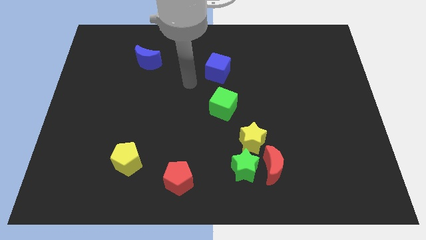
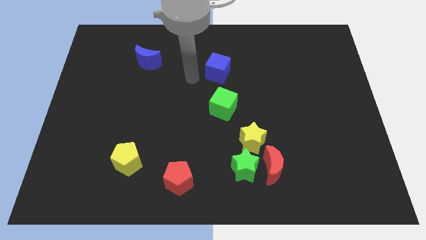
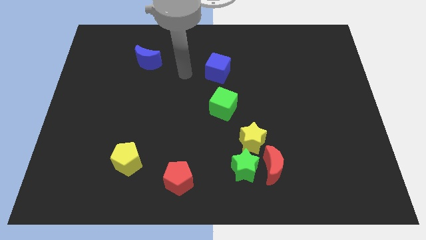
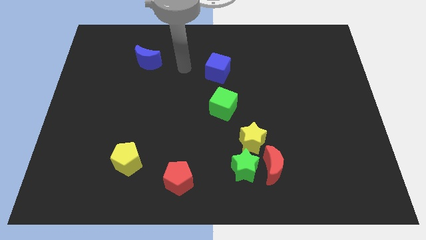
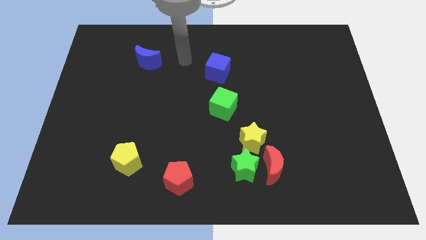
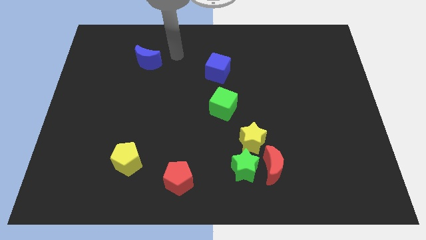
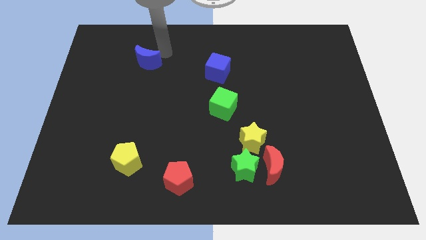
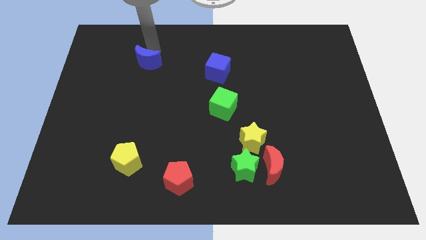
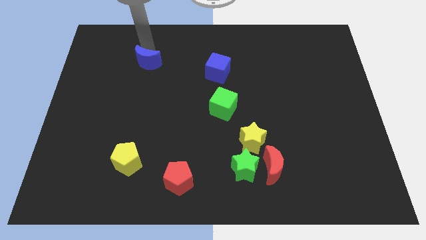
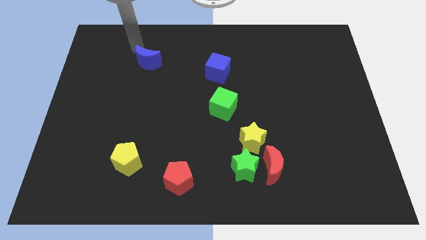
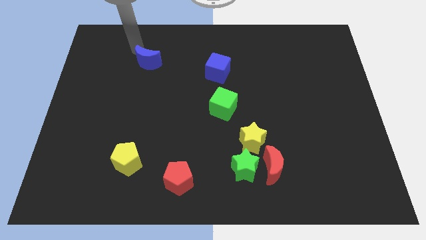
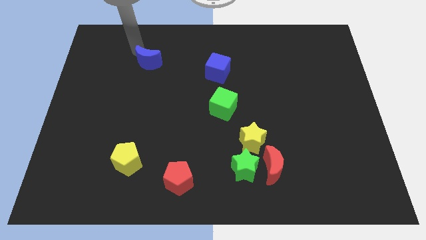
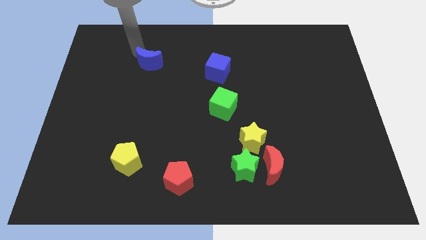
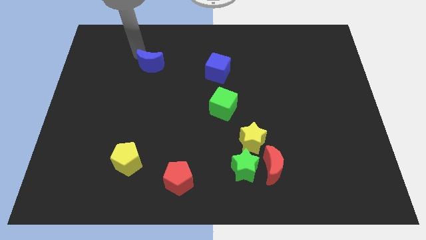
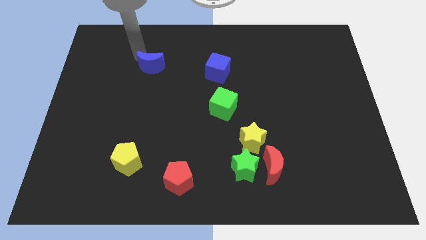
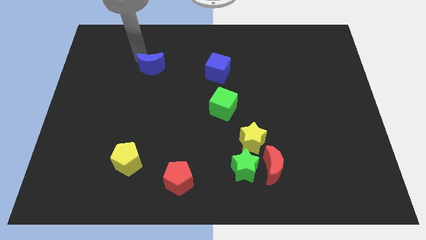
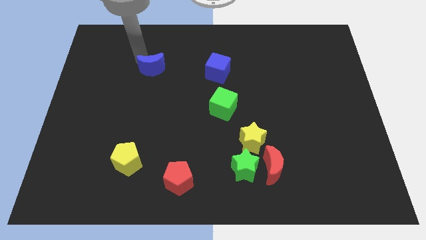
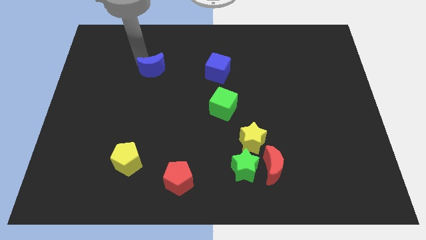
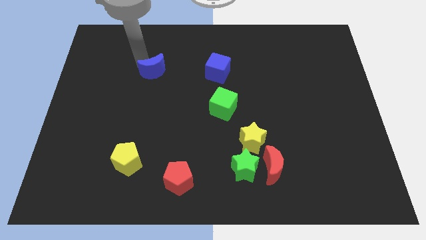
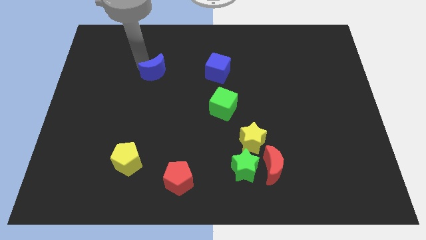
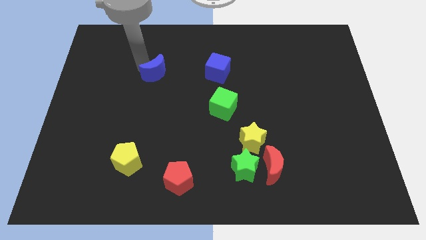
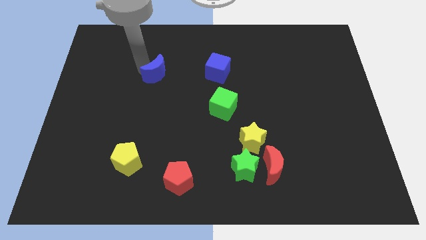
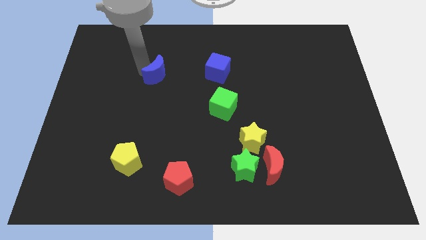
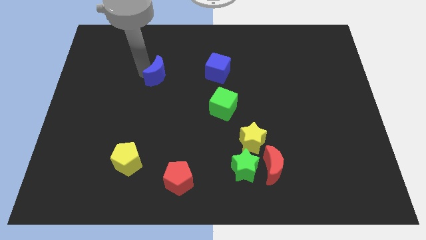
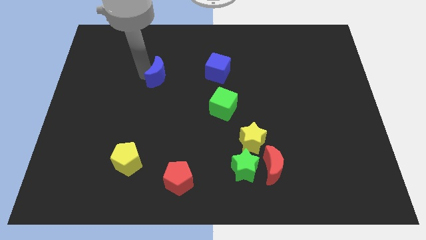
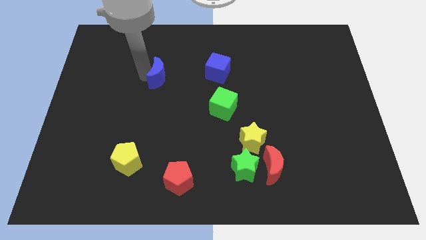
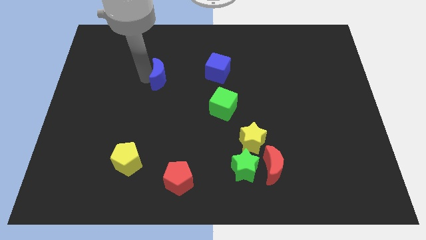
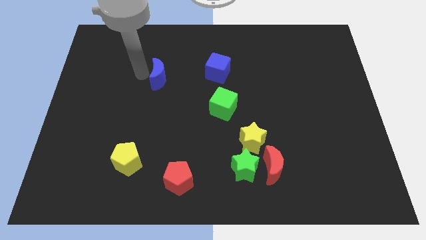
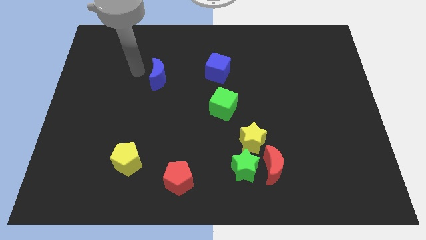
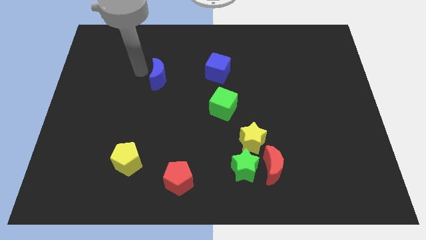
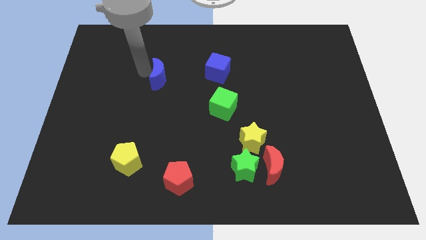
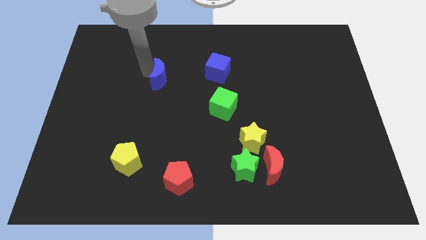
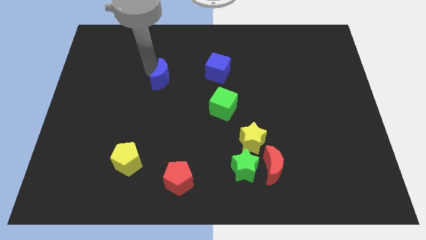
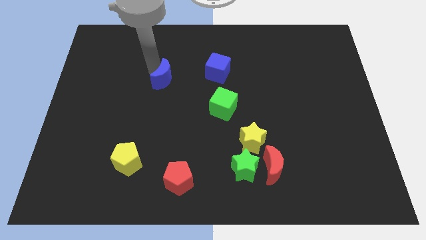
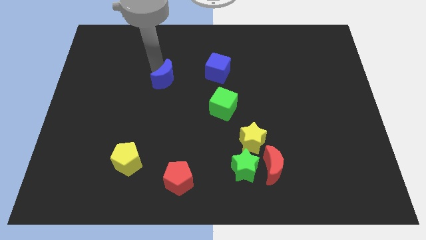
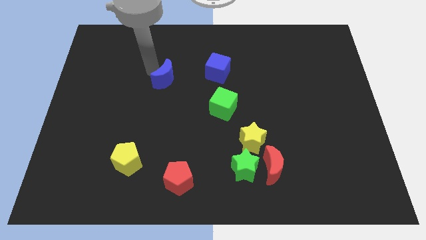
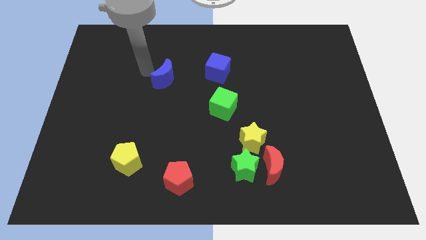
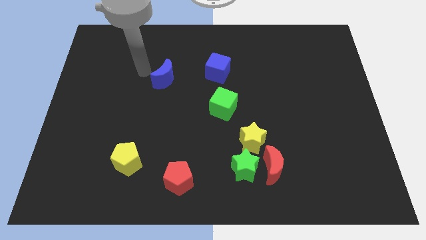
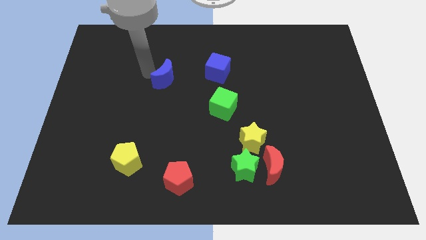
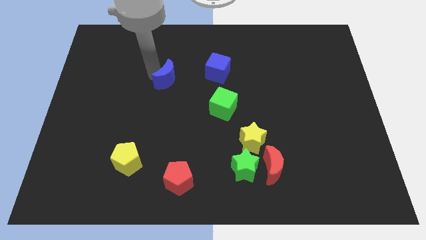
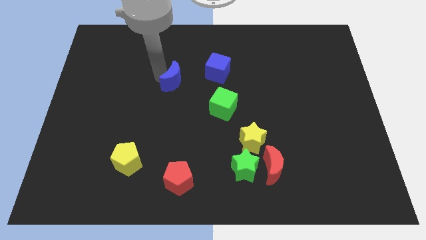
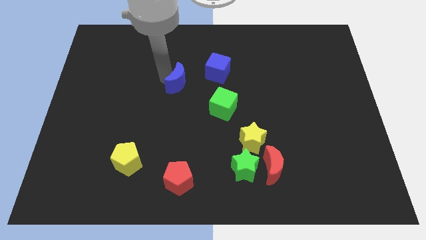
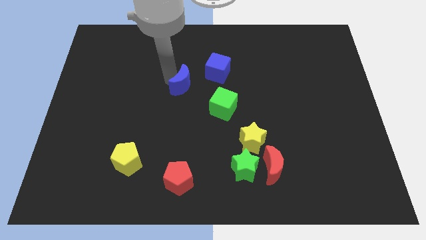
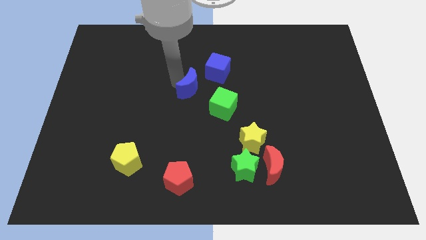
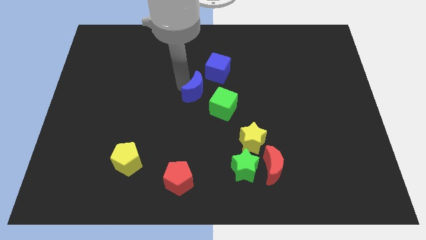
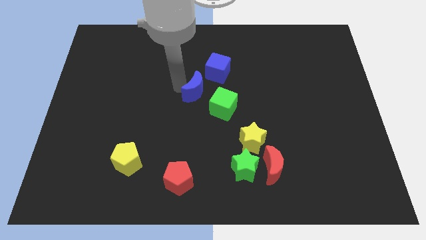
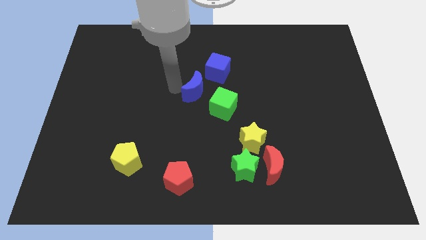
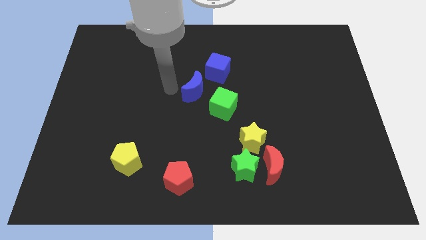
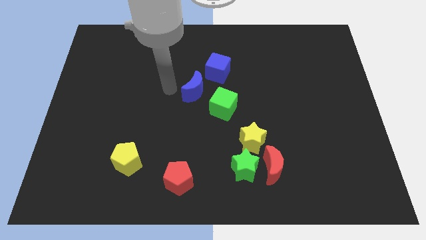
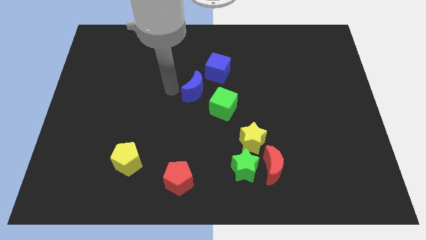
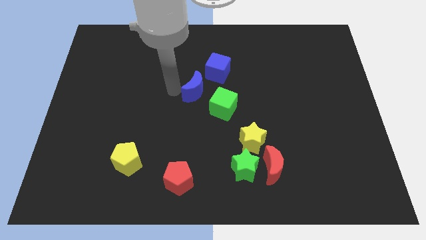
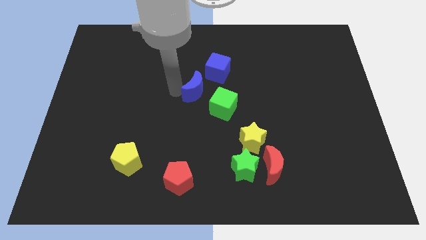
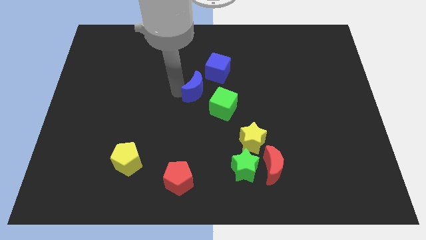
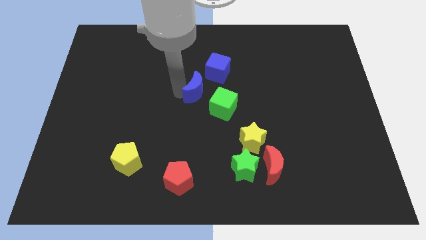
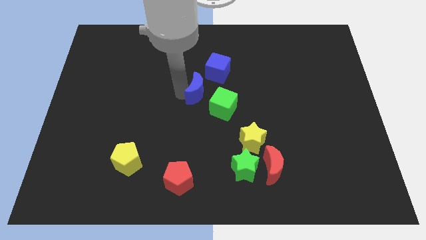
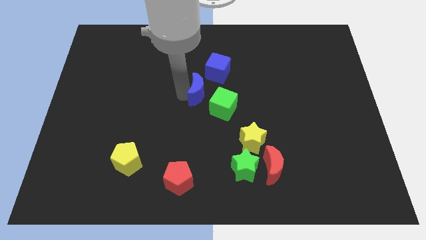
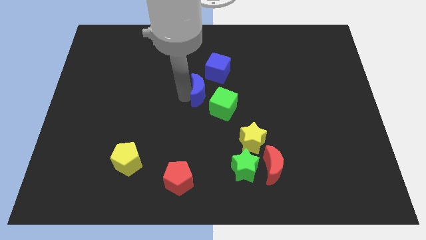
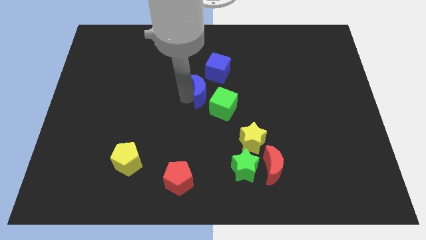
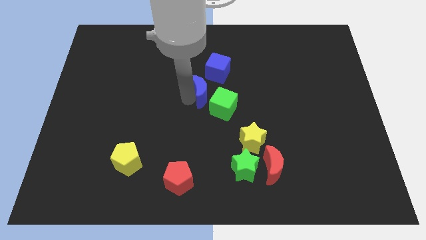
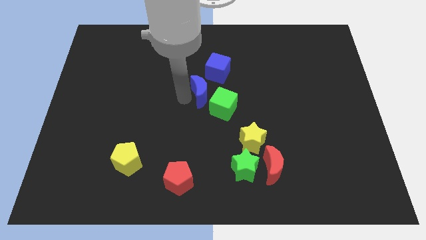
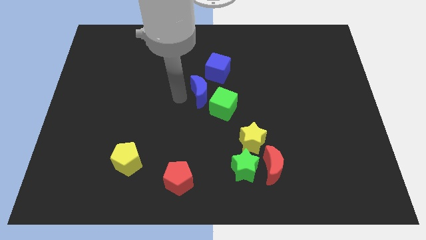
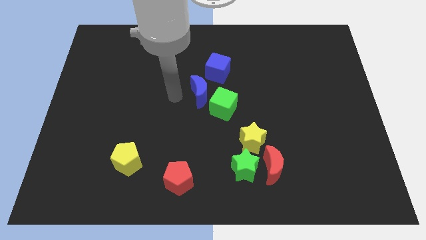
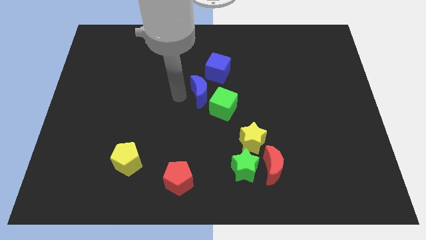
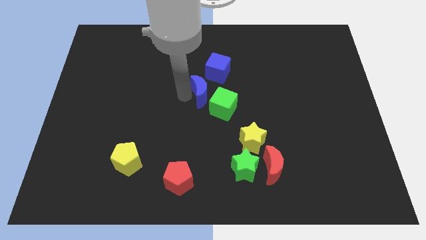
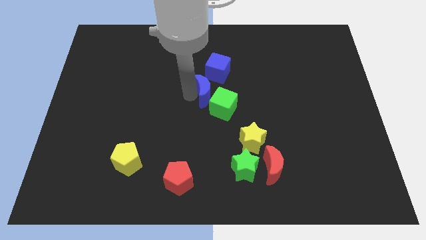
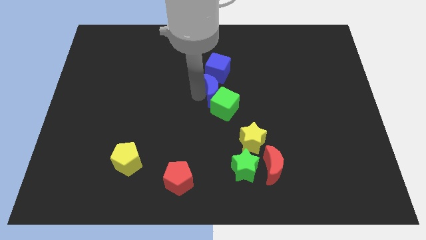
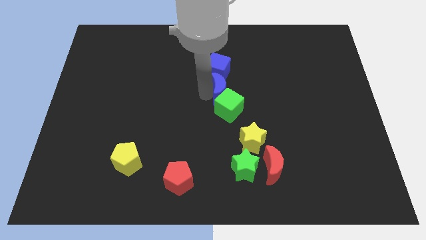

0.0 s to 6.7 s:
slide the blue moon to the bottom right side of the blue cube

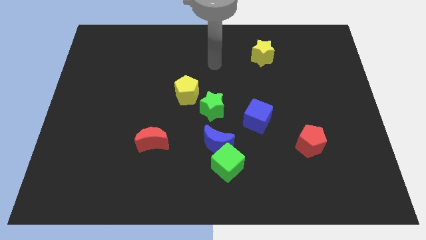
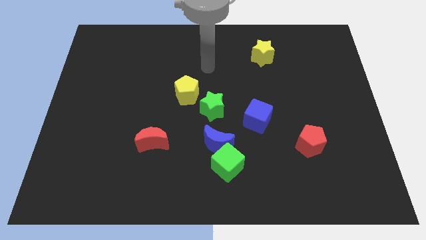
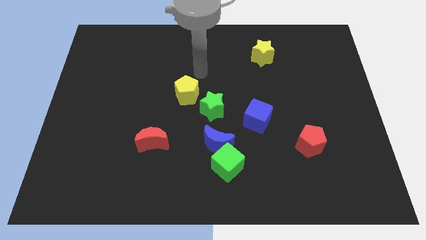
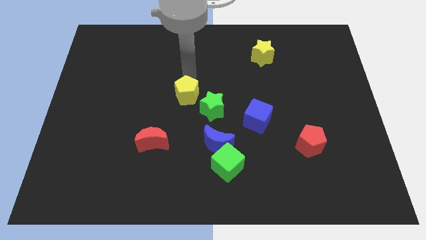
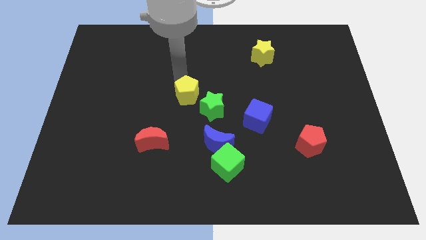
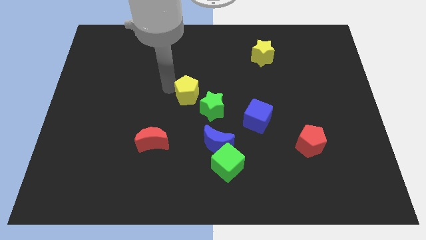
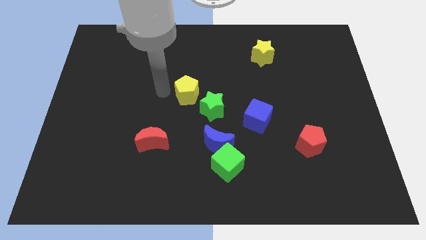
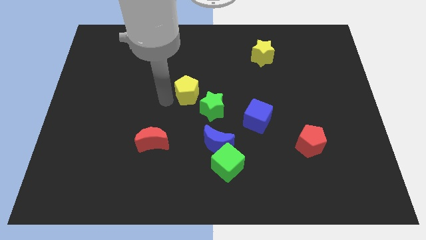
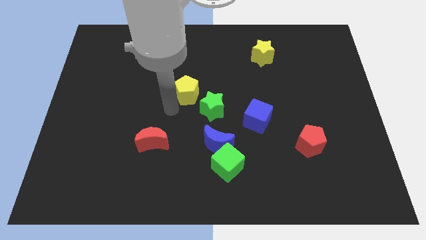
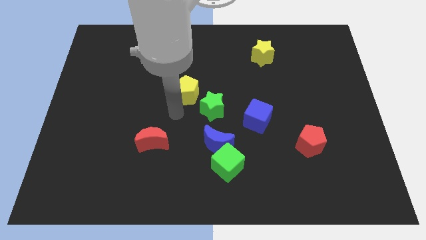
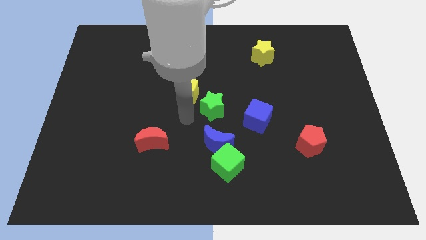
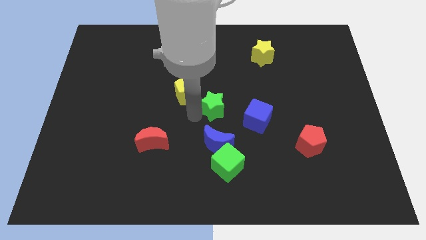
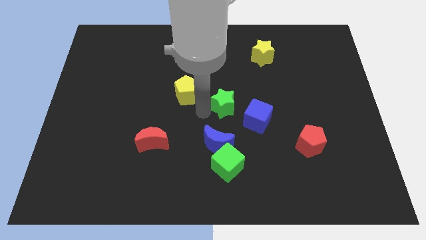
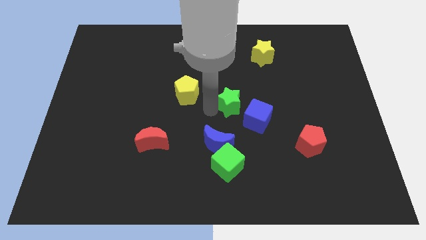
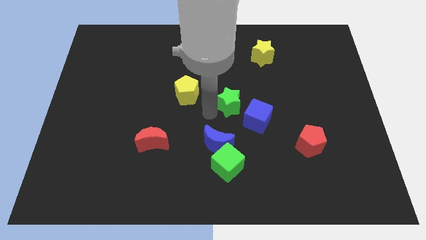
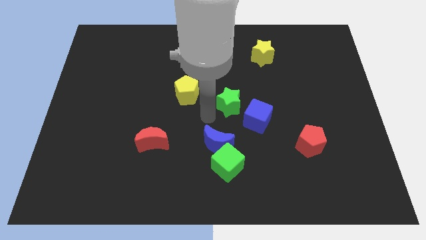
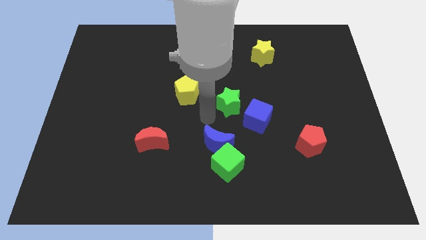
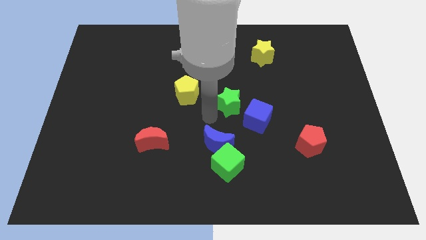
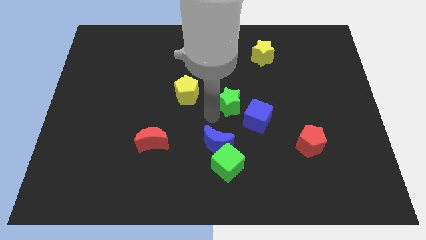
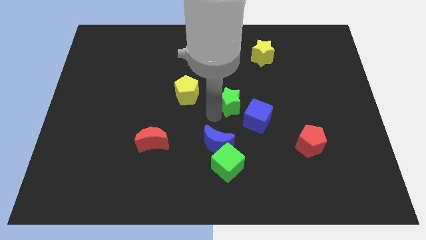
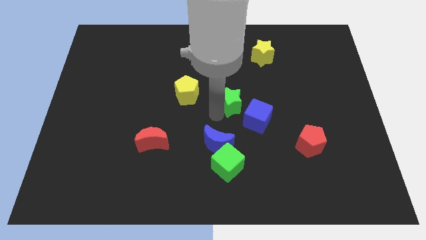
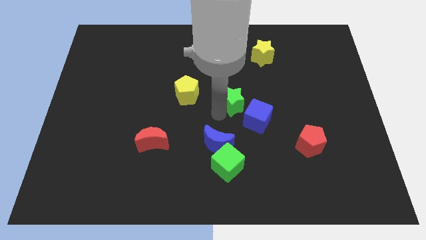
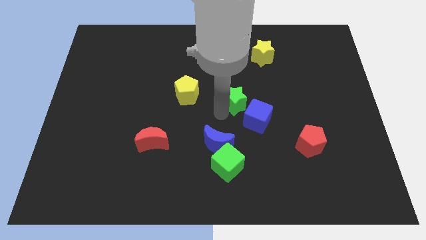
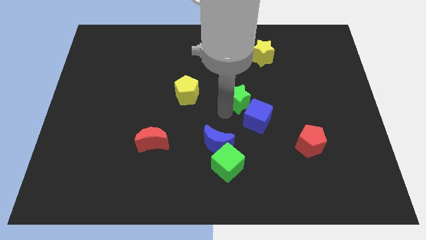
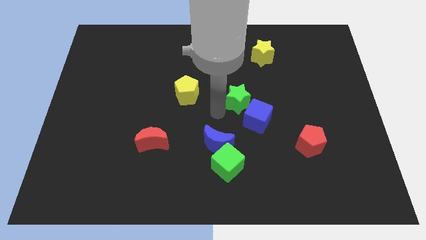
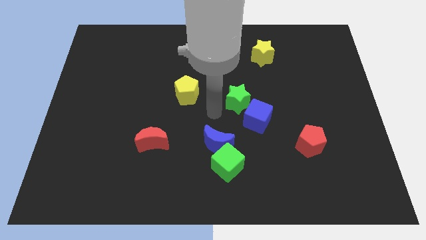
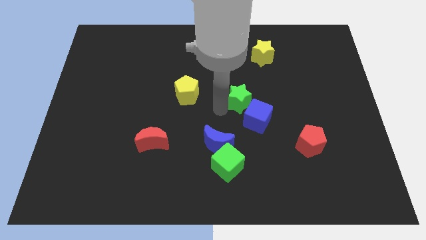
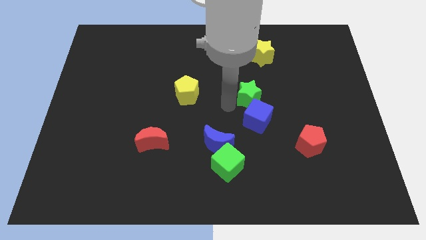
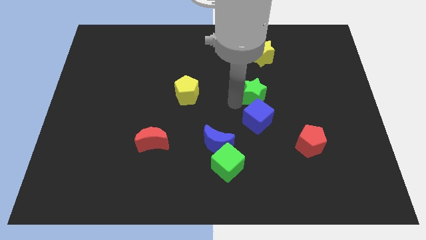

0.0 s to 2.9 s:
slide the green star to the bottom of the yellow star
